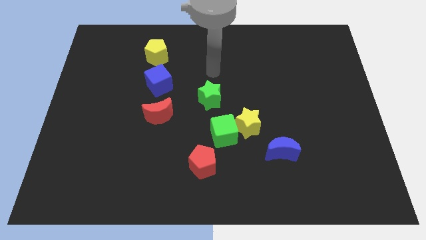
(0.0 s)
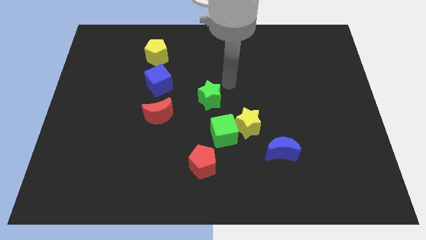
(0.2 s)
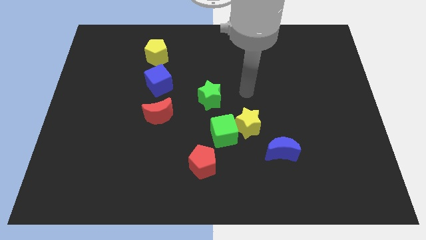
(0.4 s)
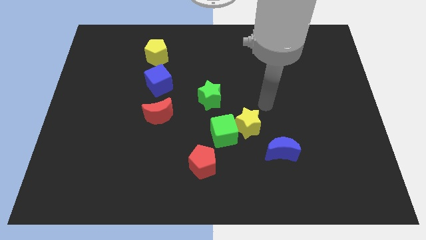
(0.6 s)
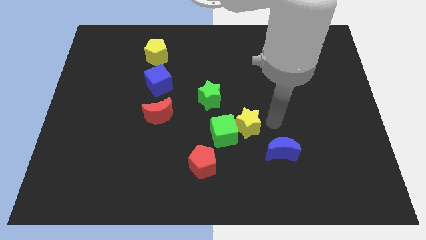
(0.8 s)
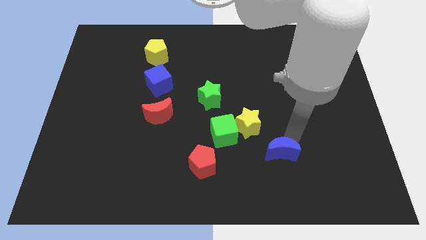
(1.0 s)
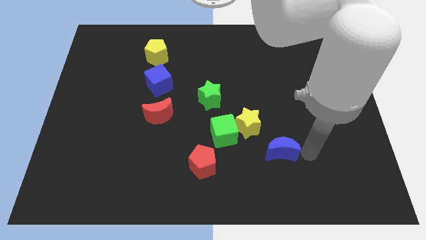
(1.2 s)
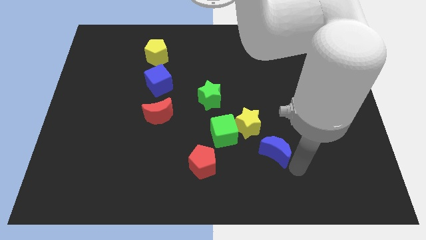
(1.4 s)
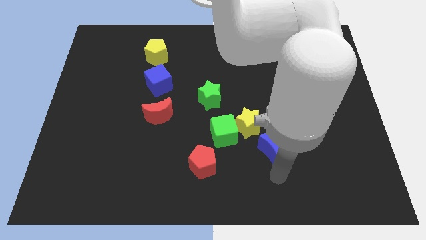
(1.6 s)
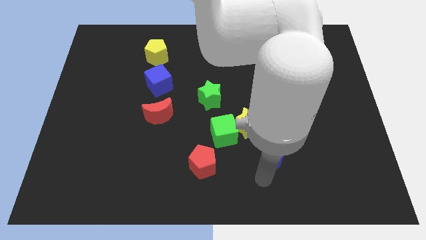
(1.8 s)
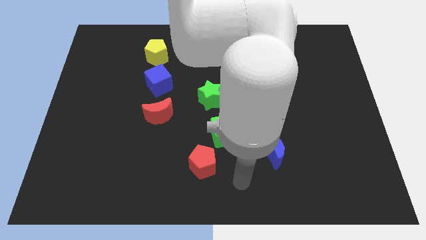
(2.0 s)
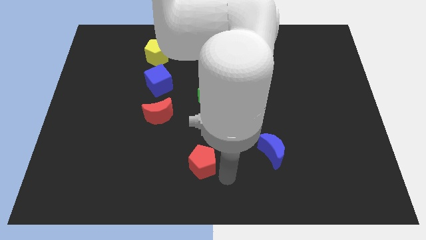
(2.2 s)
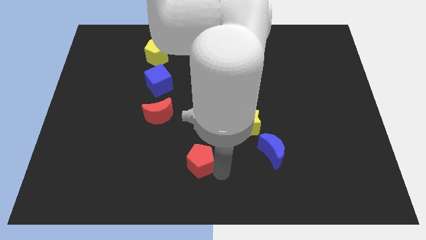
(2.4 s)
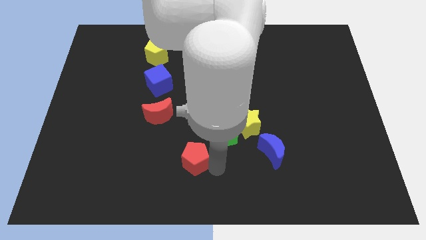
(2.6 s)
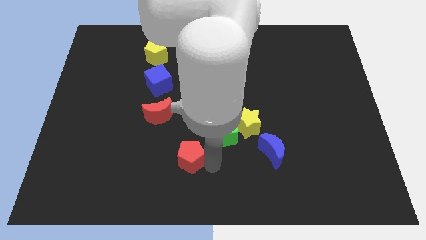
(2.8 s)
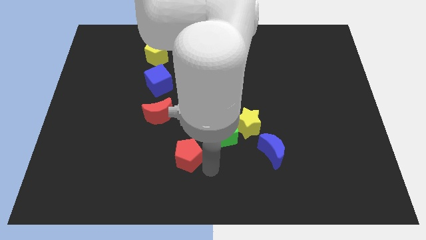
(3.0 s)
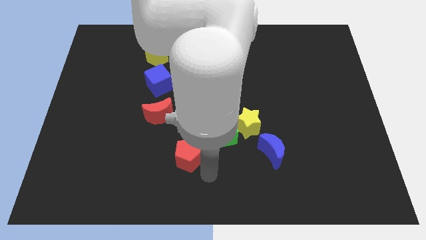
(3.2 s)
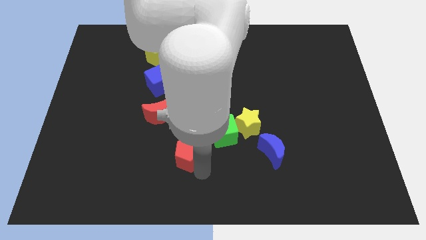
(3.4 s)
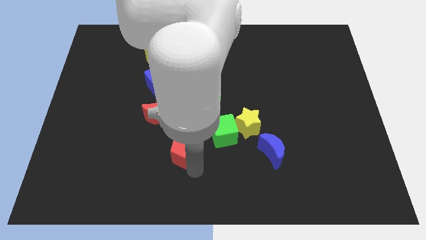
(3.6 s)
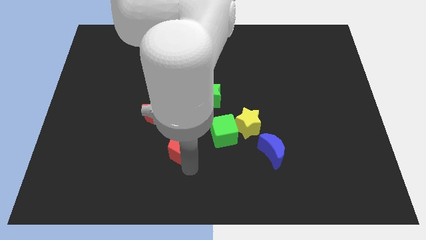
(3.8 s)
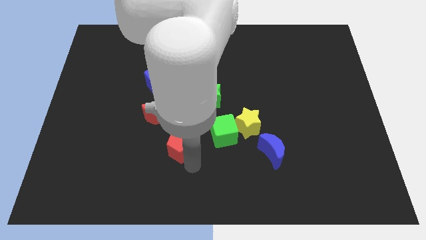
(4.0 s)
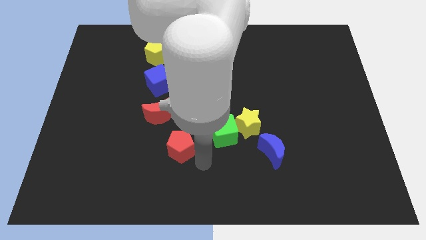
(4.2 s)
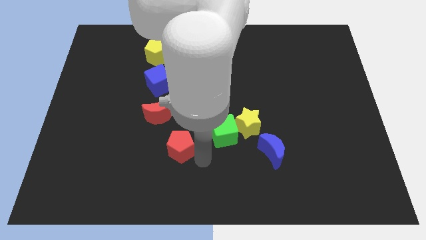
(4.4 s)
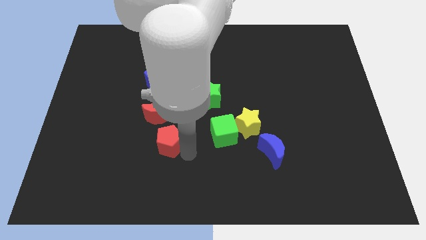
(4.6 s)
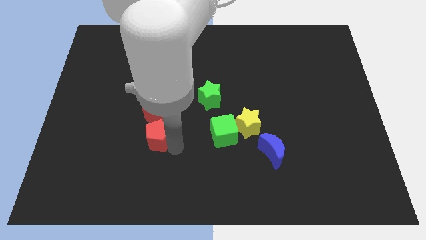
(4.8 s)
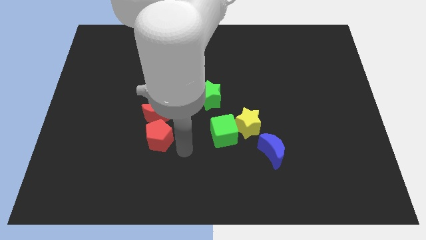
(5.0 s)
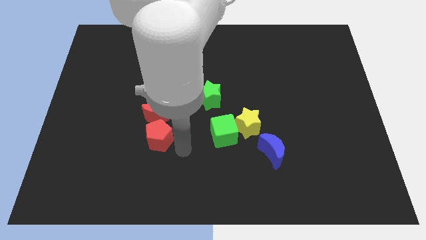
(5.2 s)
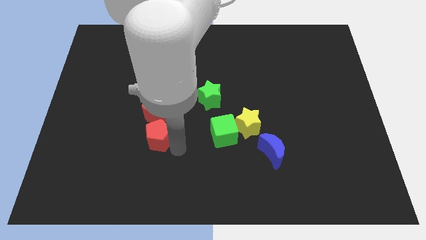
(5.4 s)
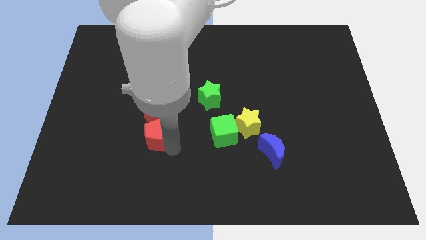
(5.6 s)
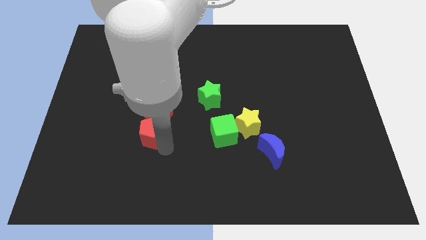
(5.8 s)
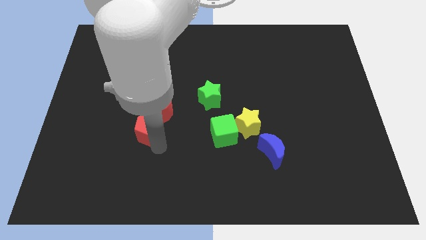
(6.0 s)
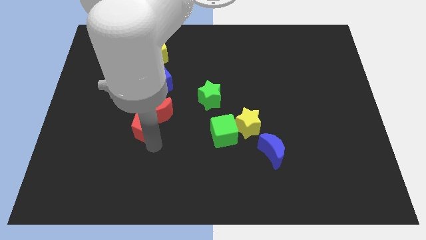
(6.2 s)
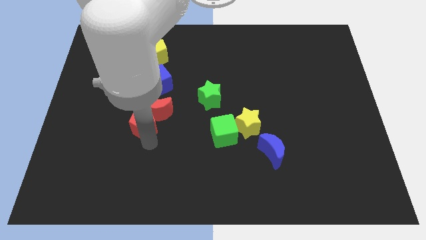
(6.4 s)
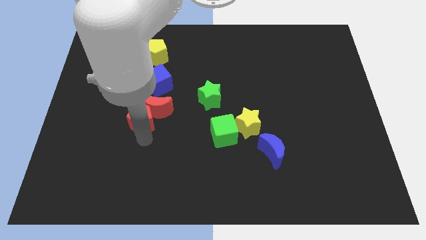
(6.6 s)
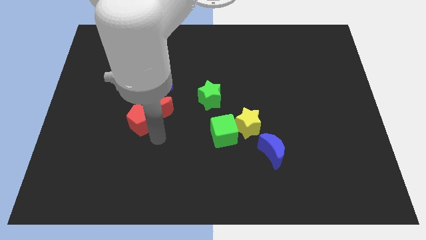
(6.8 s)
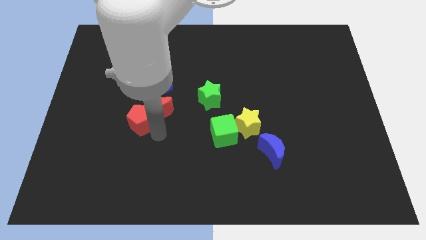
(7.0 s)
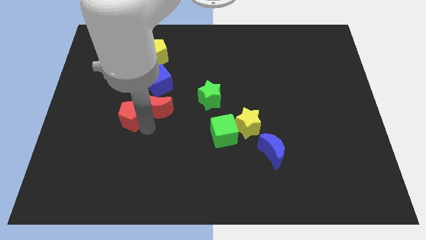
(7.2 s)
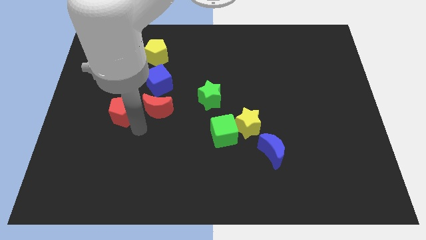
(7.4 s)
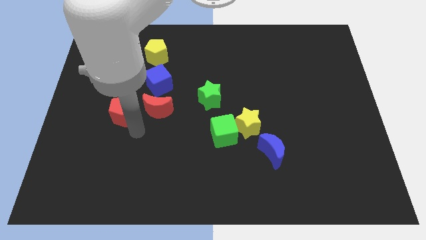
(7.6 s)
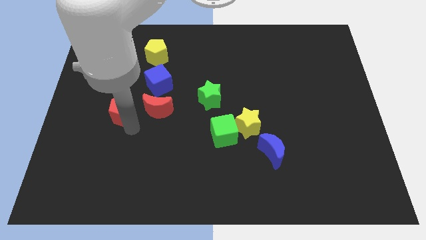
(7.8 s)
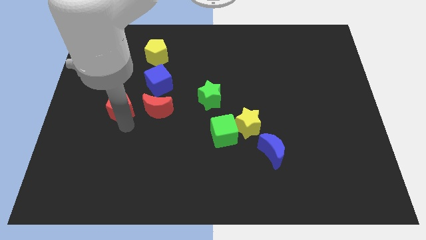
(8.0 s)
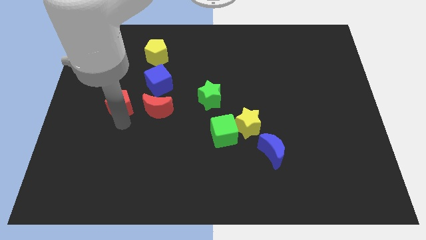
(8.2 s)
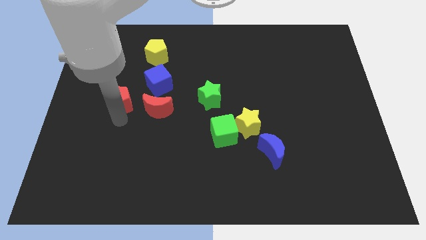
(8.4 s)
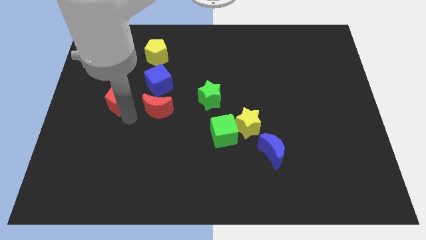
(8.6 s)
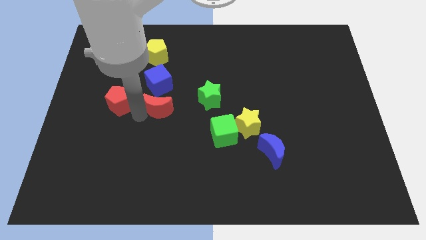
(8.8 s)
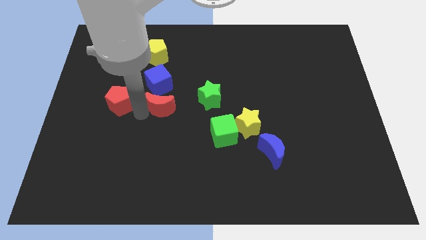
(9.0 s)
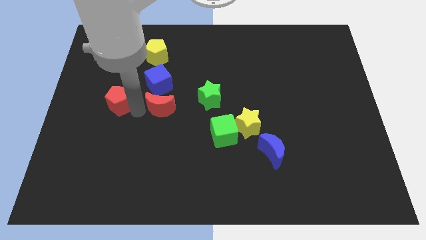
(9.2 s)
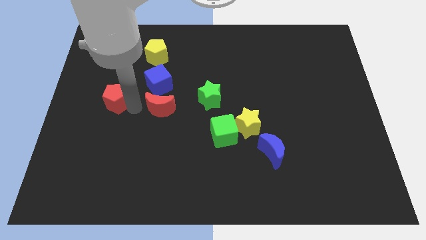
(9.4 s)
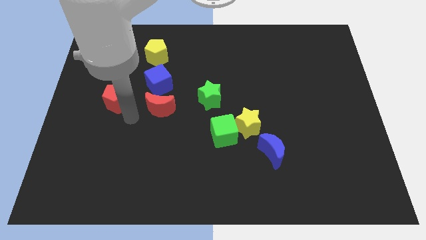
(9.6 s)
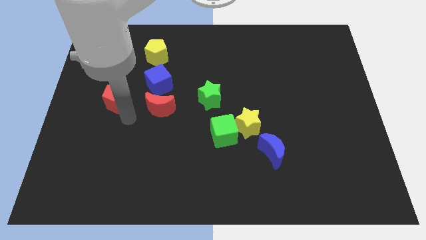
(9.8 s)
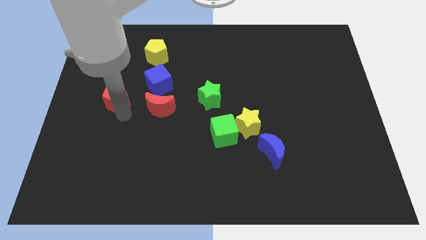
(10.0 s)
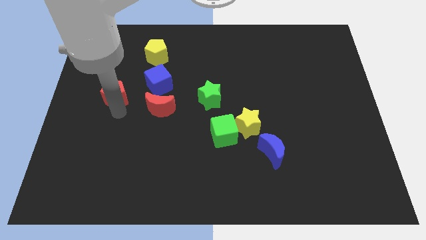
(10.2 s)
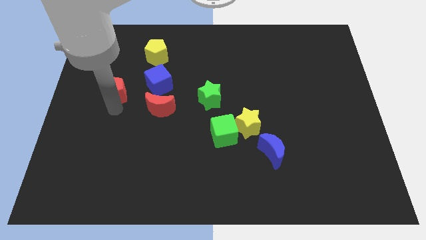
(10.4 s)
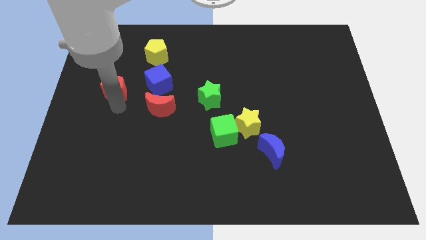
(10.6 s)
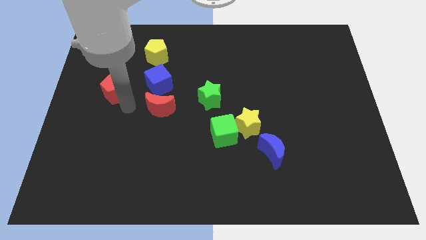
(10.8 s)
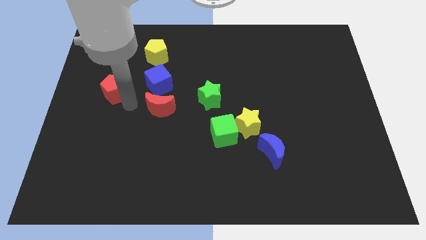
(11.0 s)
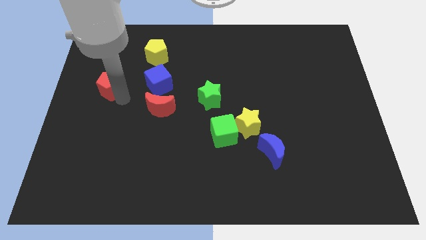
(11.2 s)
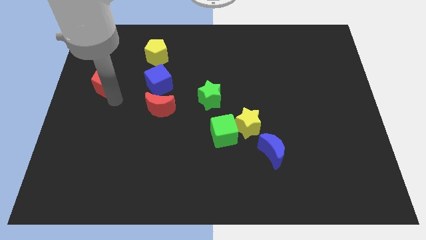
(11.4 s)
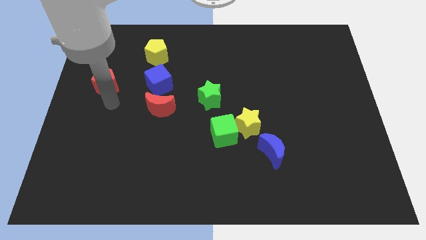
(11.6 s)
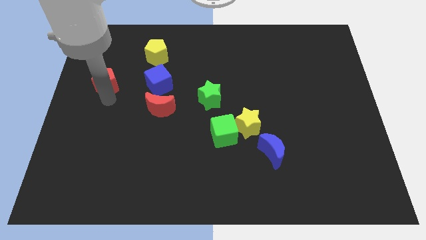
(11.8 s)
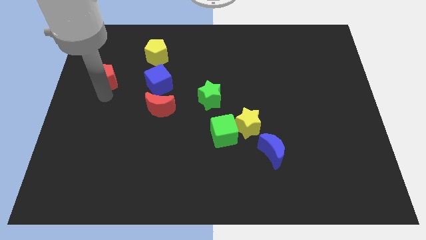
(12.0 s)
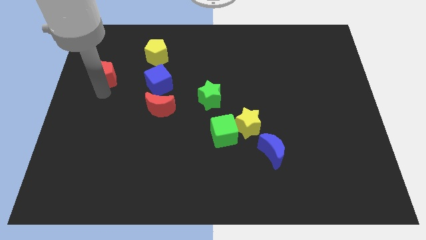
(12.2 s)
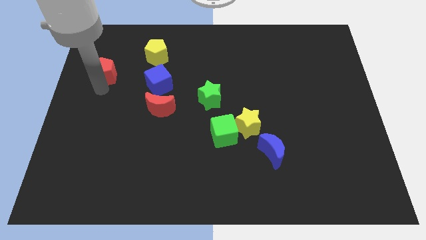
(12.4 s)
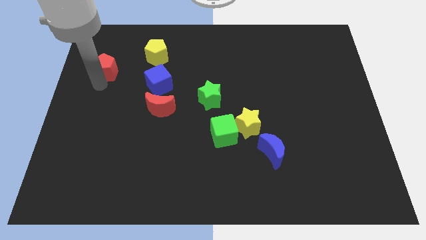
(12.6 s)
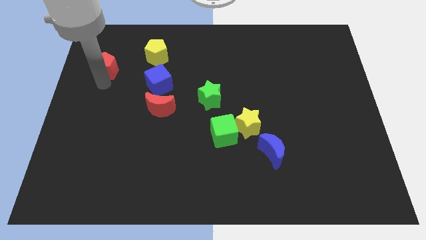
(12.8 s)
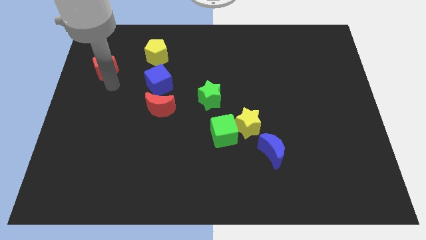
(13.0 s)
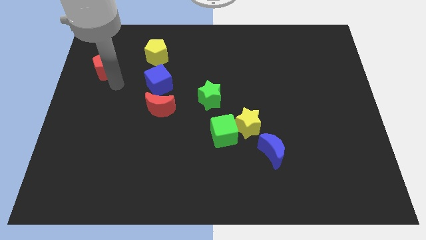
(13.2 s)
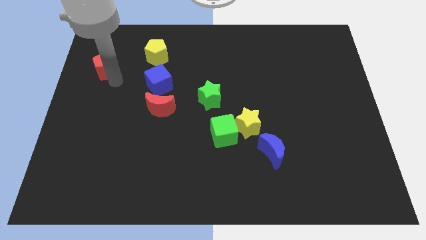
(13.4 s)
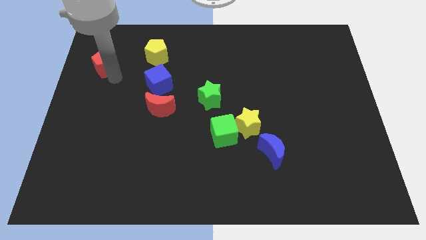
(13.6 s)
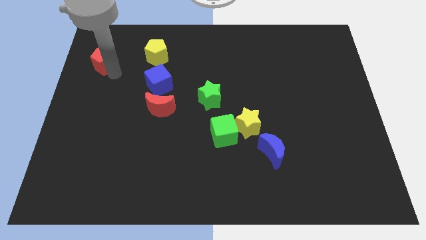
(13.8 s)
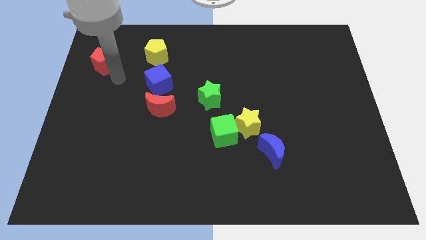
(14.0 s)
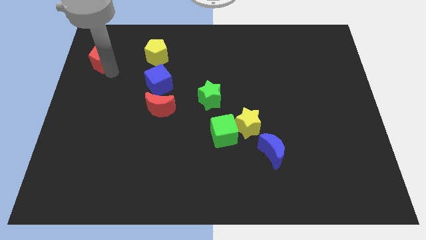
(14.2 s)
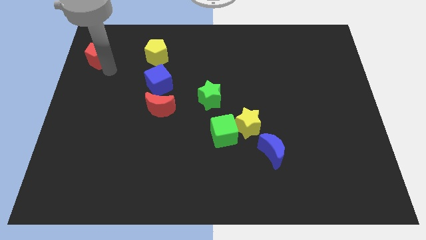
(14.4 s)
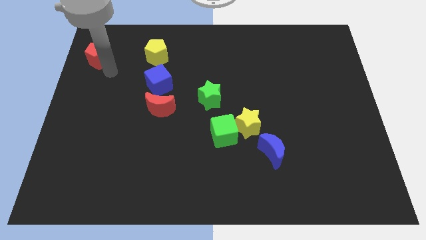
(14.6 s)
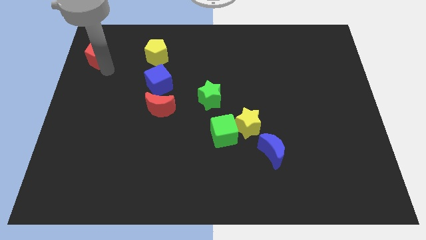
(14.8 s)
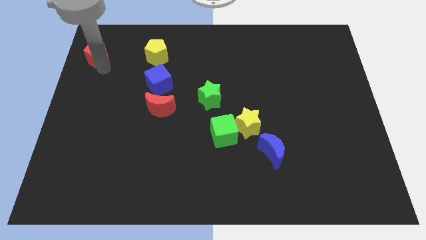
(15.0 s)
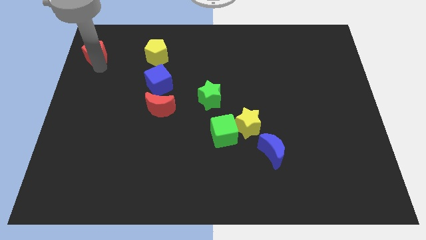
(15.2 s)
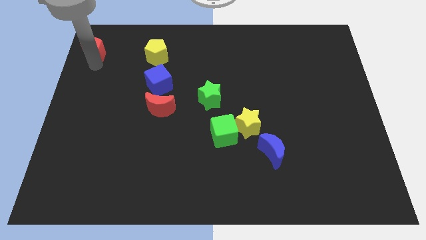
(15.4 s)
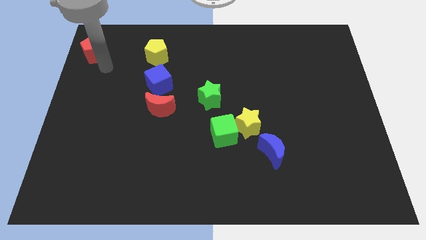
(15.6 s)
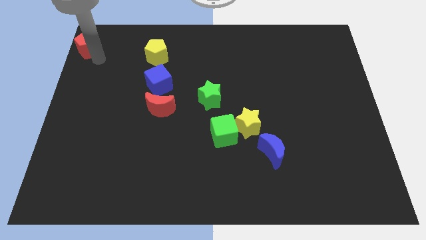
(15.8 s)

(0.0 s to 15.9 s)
put the red pentagon to the top left of the board
